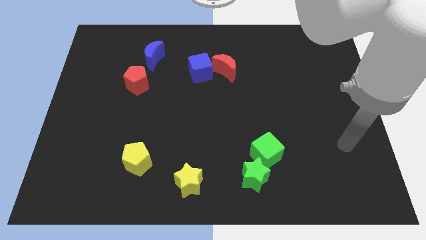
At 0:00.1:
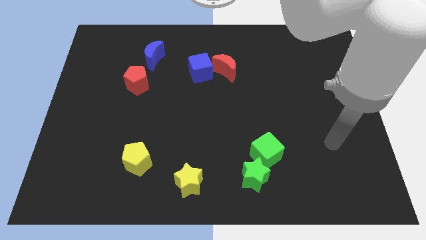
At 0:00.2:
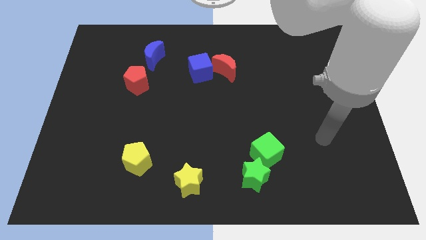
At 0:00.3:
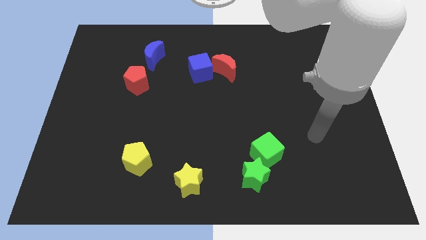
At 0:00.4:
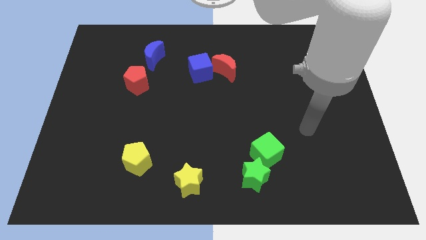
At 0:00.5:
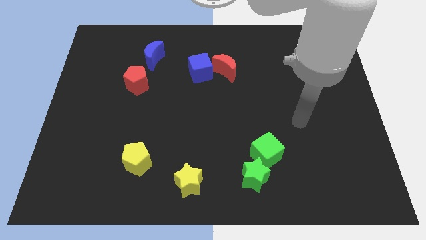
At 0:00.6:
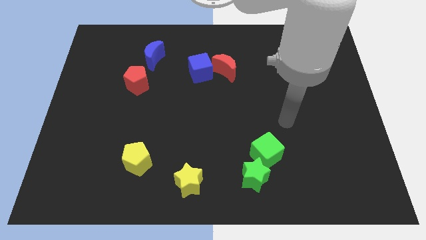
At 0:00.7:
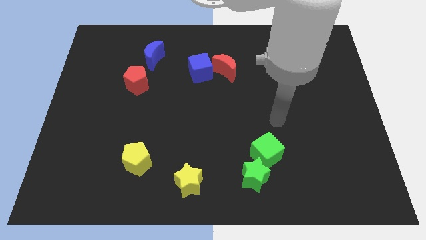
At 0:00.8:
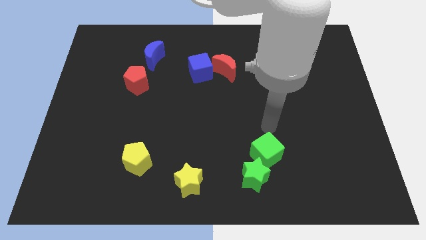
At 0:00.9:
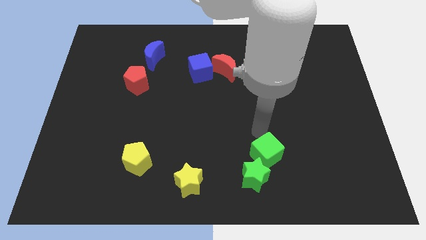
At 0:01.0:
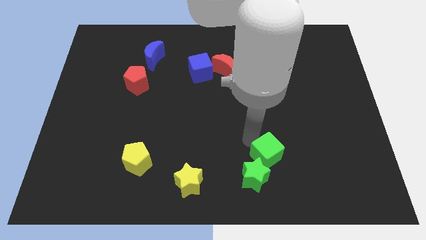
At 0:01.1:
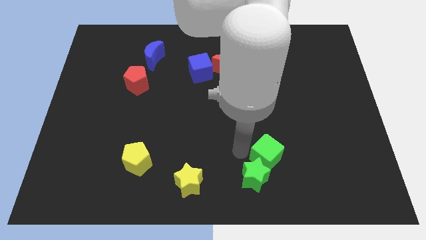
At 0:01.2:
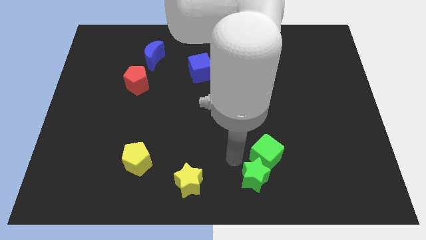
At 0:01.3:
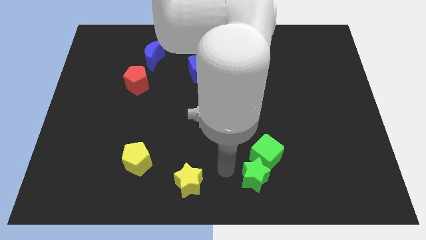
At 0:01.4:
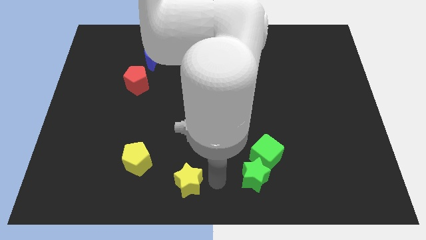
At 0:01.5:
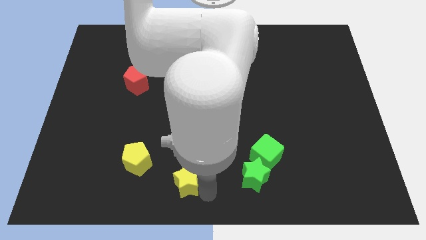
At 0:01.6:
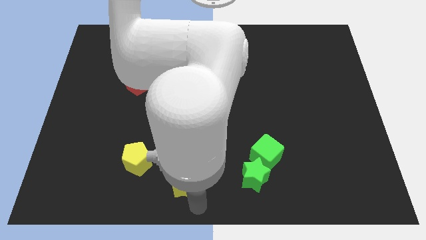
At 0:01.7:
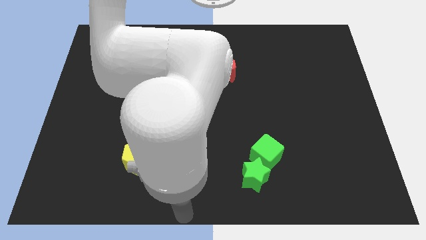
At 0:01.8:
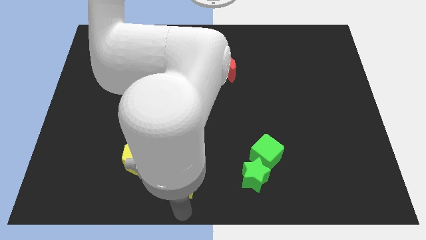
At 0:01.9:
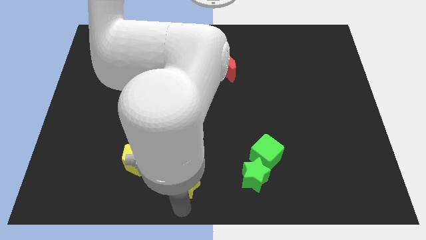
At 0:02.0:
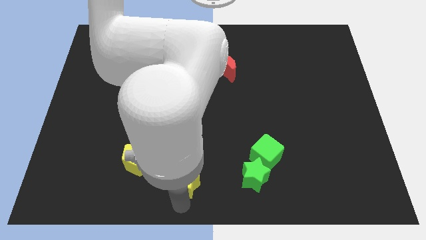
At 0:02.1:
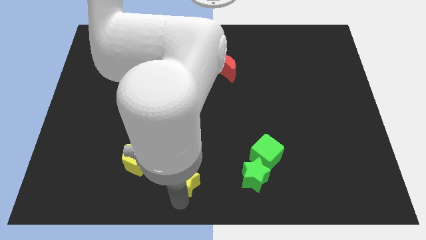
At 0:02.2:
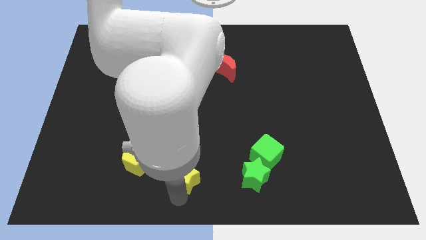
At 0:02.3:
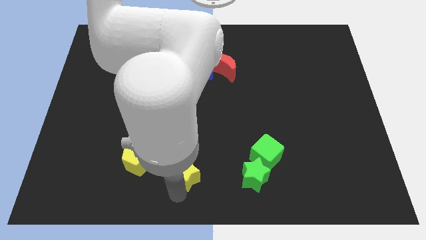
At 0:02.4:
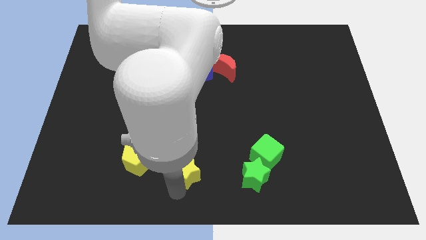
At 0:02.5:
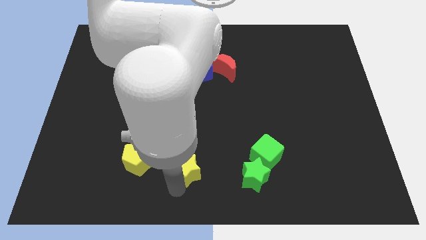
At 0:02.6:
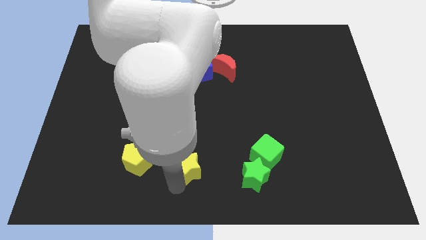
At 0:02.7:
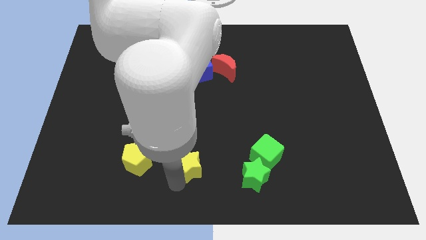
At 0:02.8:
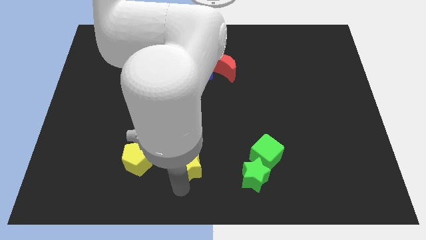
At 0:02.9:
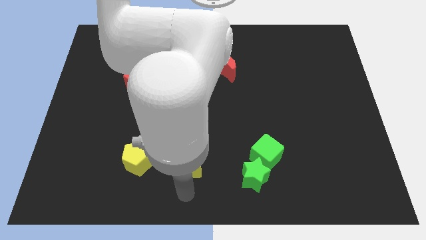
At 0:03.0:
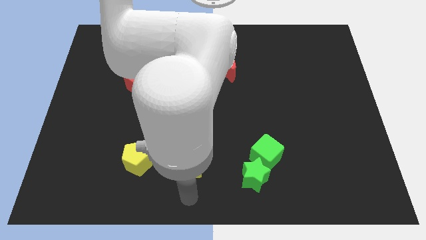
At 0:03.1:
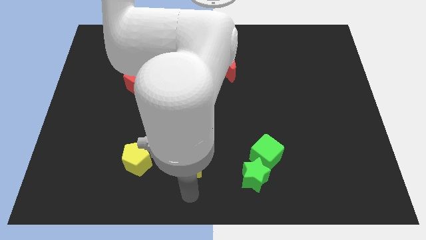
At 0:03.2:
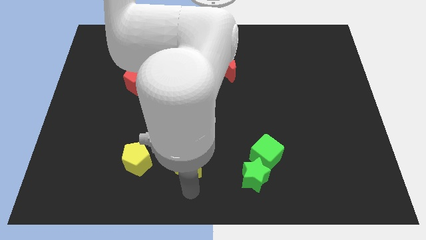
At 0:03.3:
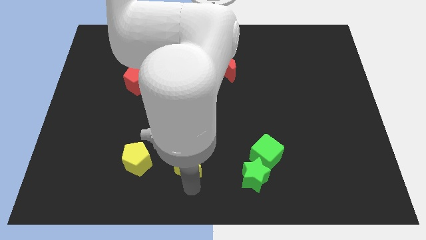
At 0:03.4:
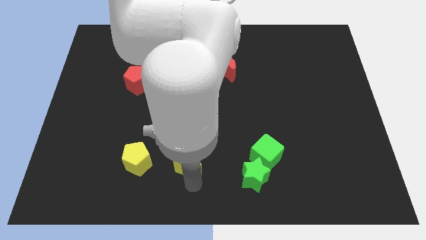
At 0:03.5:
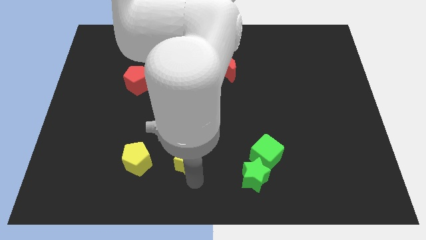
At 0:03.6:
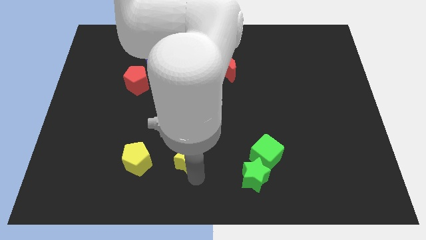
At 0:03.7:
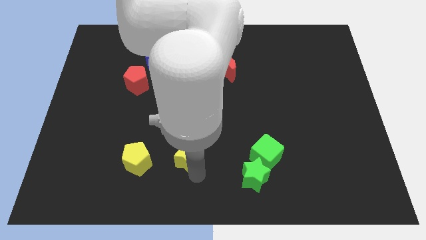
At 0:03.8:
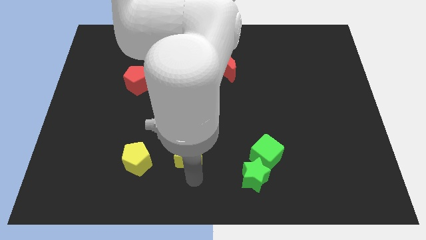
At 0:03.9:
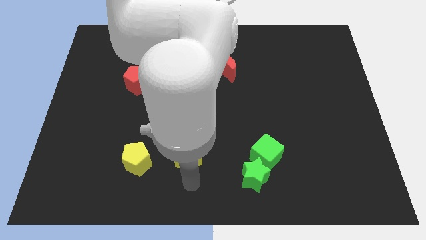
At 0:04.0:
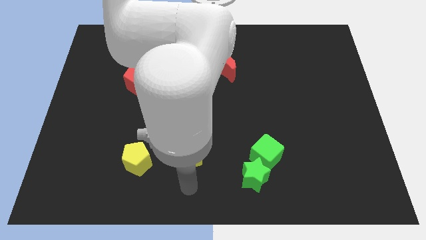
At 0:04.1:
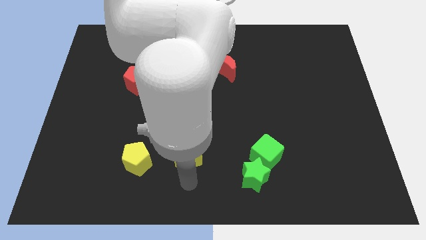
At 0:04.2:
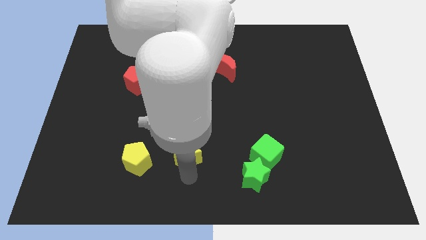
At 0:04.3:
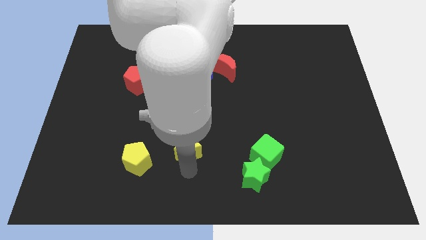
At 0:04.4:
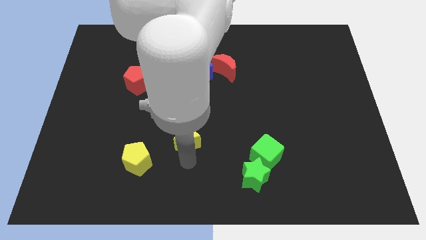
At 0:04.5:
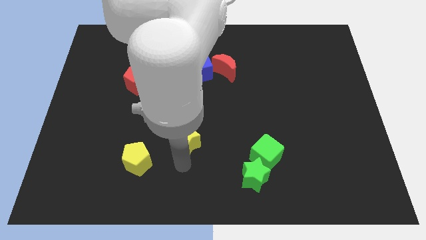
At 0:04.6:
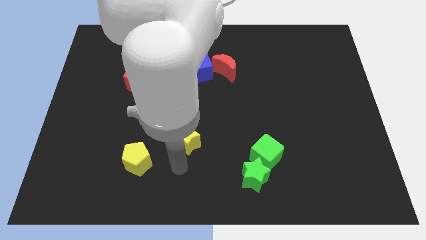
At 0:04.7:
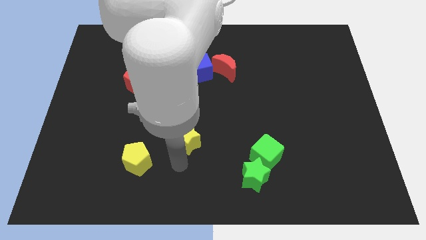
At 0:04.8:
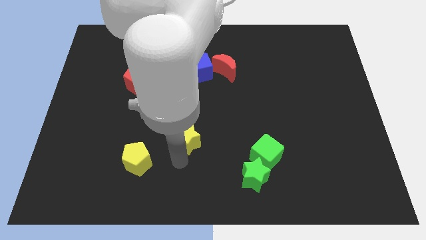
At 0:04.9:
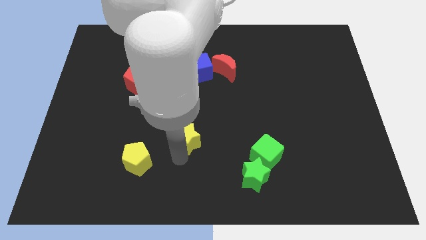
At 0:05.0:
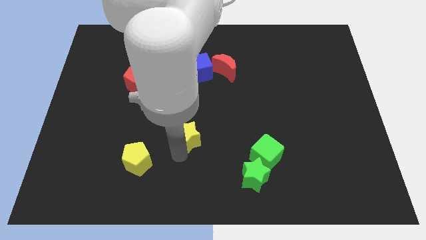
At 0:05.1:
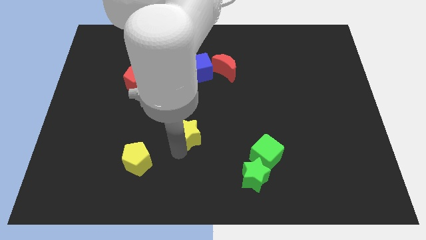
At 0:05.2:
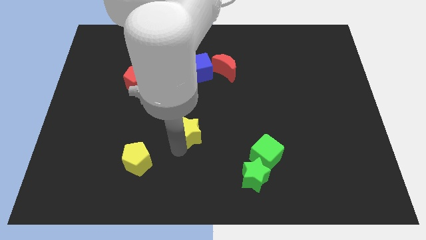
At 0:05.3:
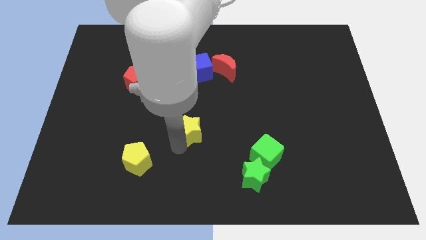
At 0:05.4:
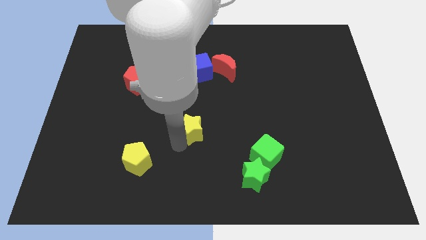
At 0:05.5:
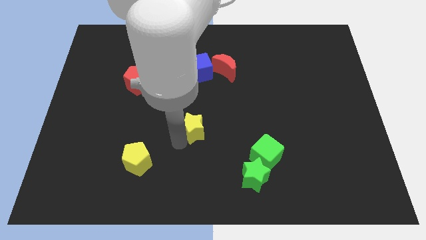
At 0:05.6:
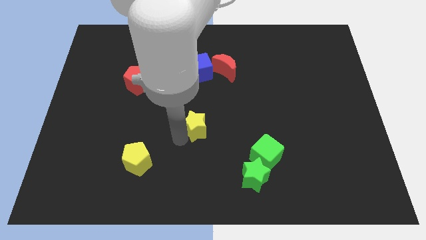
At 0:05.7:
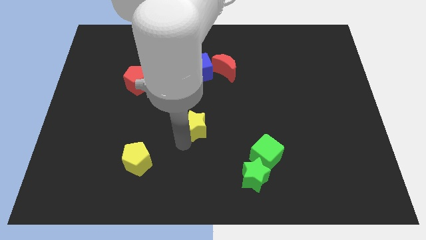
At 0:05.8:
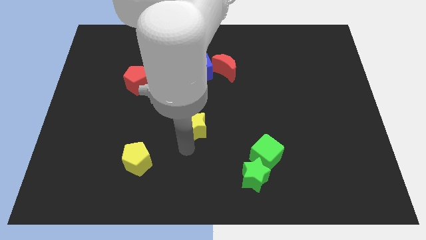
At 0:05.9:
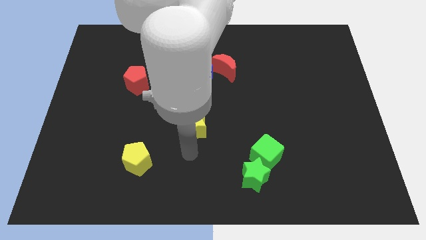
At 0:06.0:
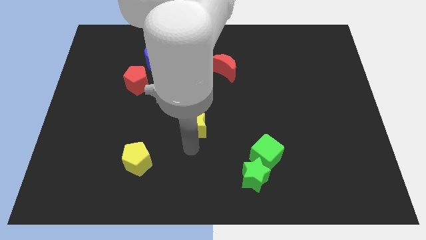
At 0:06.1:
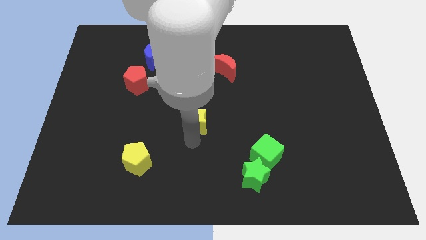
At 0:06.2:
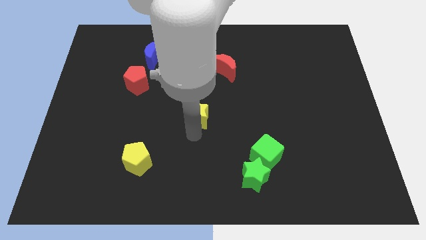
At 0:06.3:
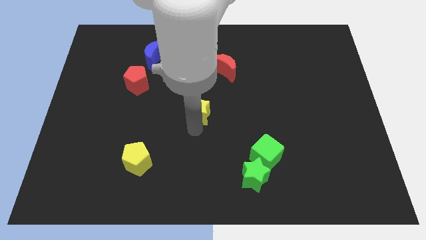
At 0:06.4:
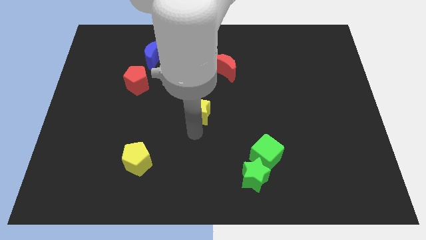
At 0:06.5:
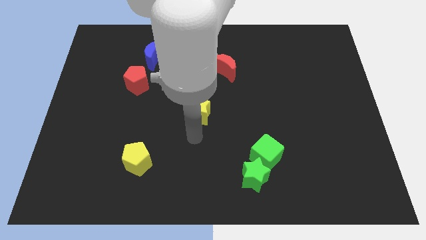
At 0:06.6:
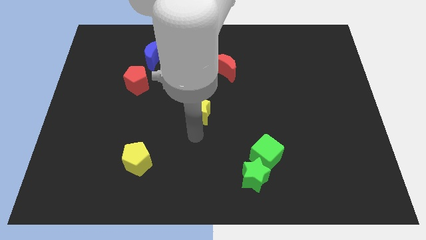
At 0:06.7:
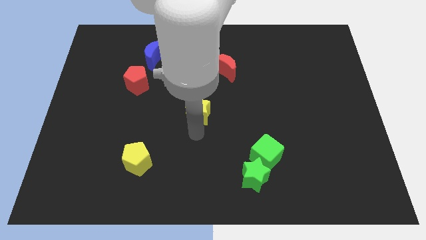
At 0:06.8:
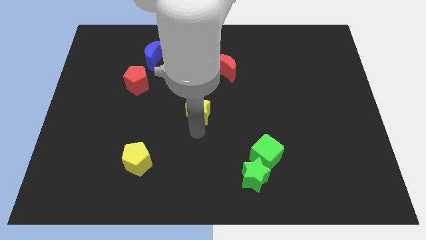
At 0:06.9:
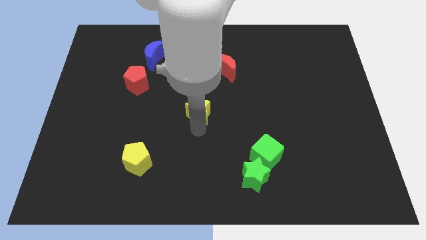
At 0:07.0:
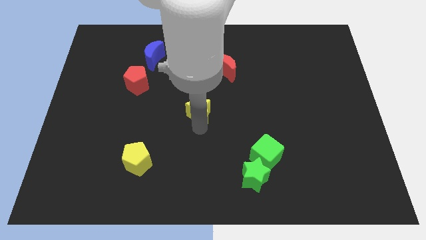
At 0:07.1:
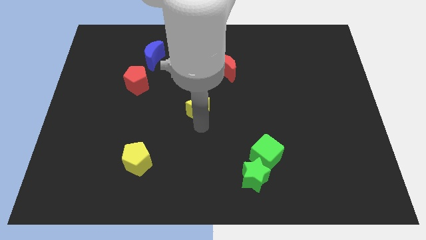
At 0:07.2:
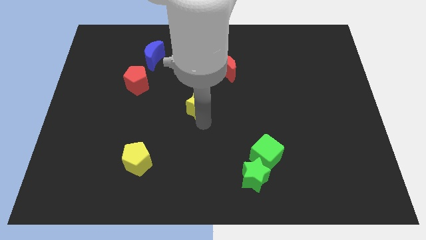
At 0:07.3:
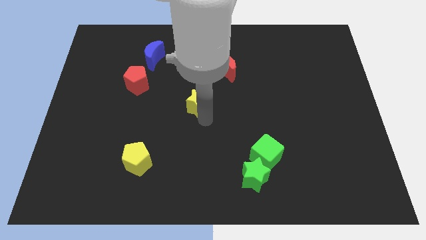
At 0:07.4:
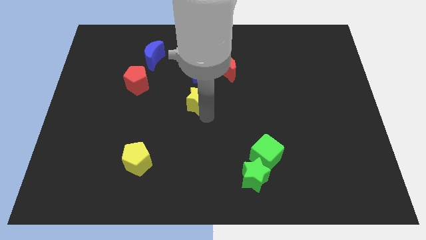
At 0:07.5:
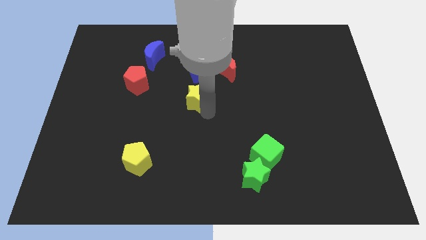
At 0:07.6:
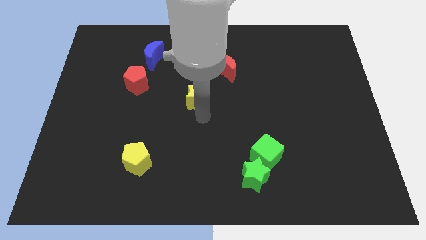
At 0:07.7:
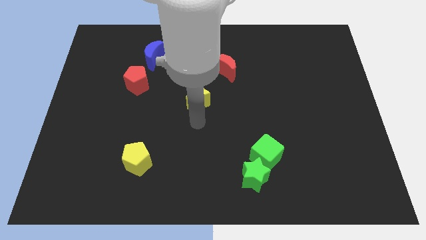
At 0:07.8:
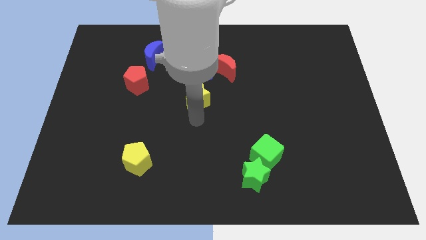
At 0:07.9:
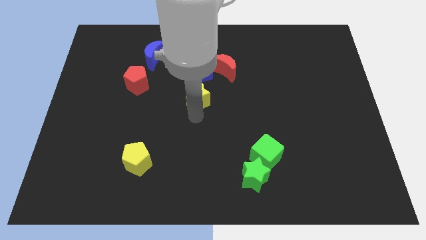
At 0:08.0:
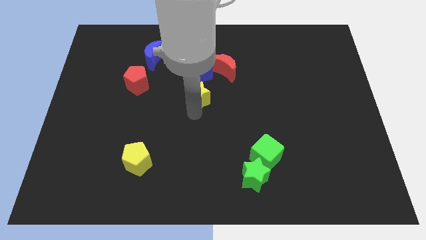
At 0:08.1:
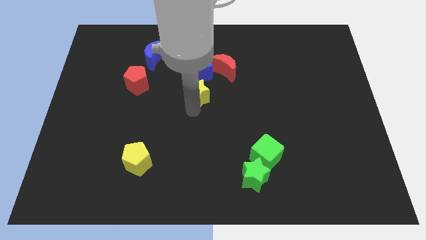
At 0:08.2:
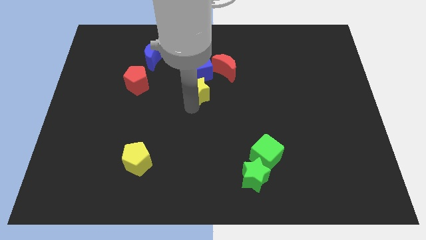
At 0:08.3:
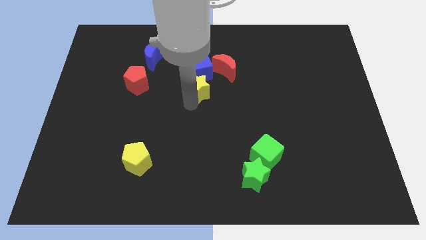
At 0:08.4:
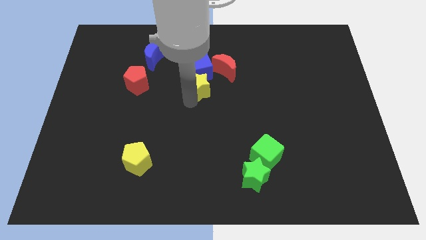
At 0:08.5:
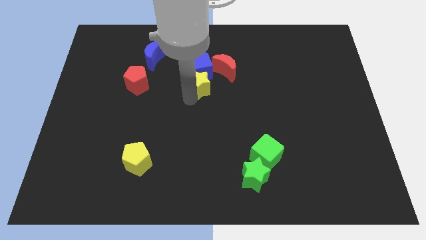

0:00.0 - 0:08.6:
move the yellow star to the blue cube
